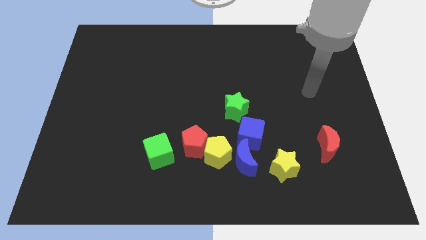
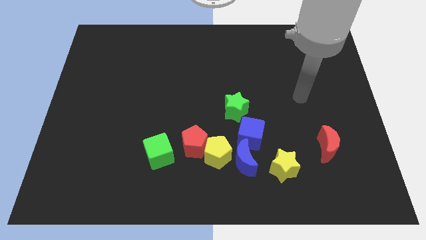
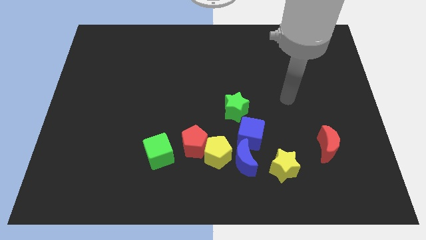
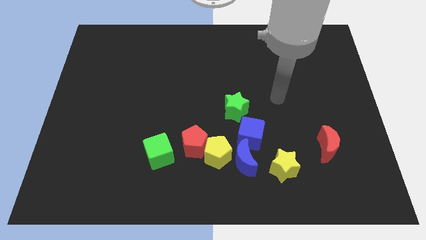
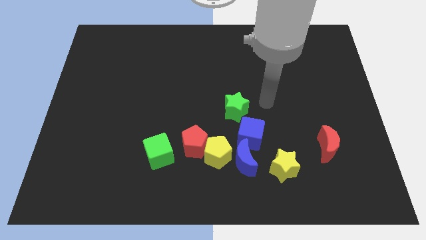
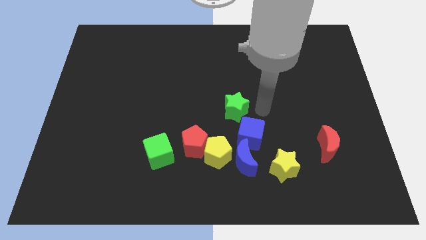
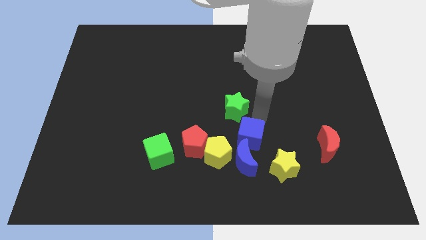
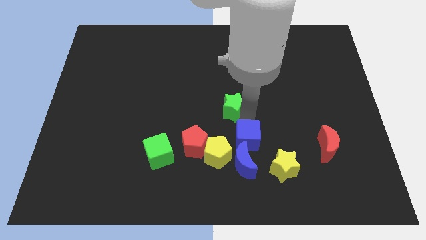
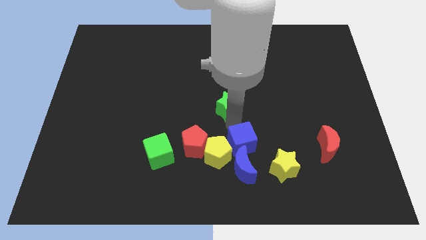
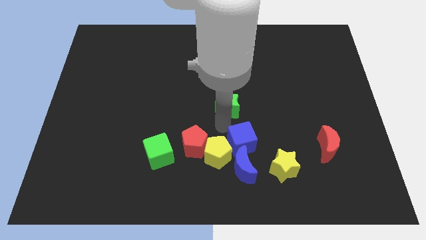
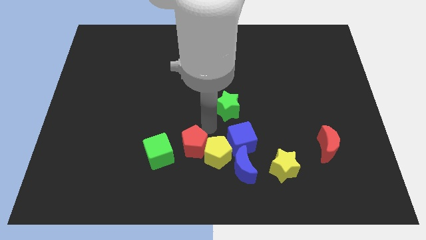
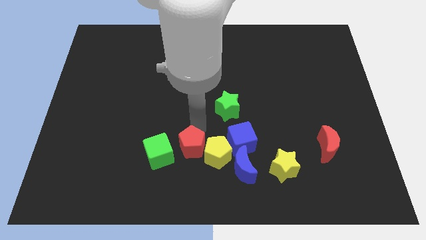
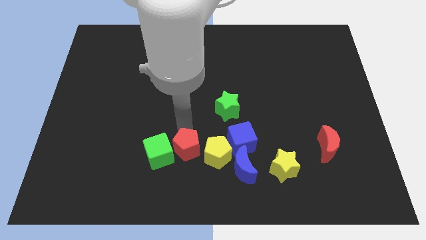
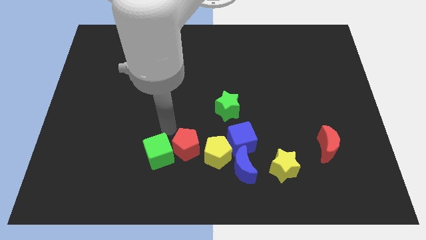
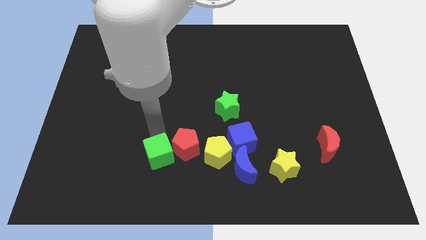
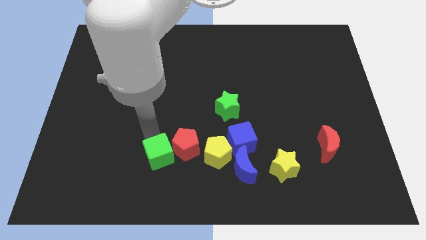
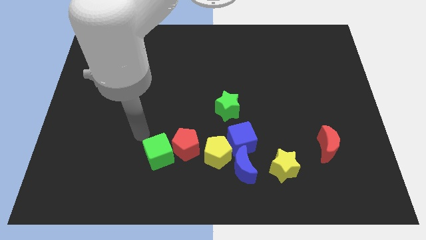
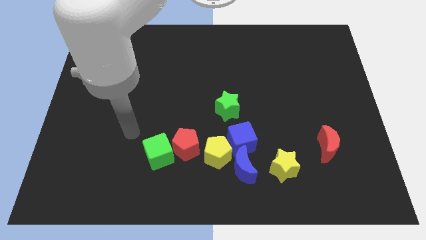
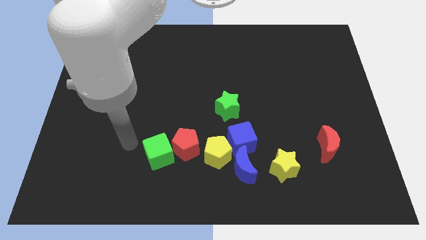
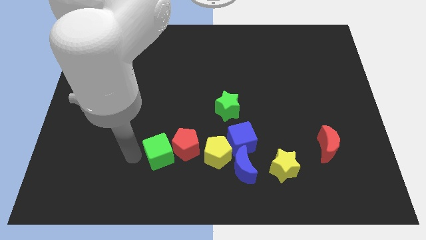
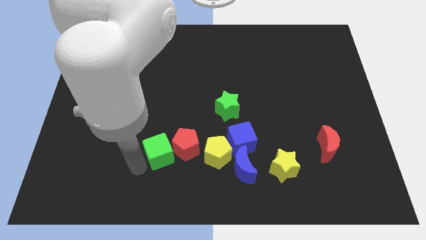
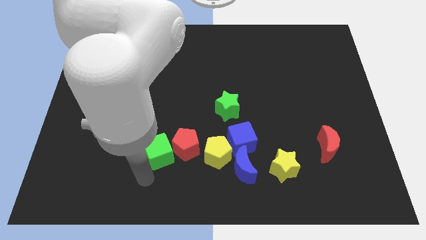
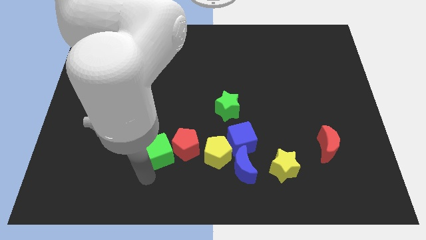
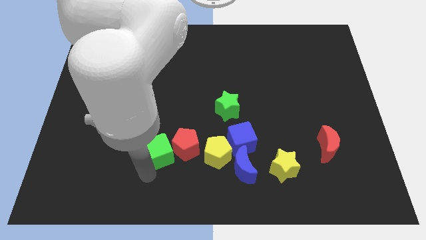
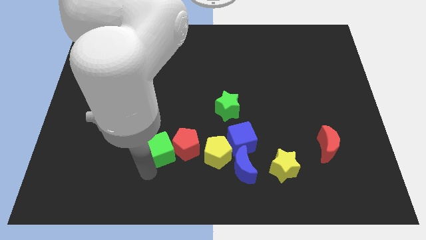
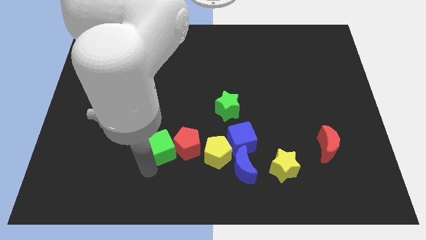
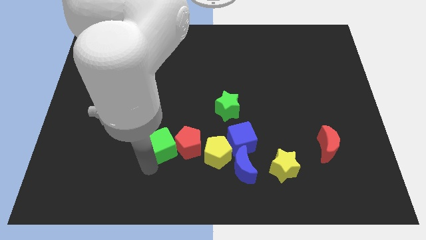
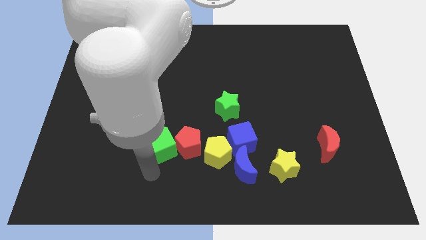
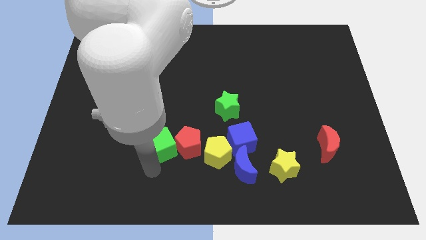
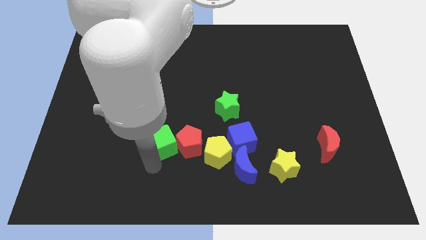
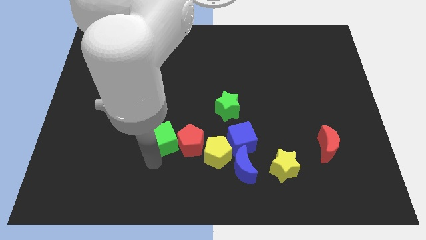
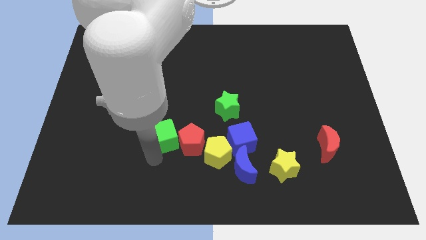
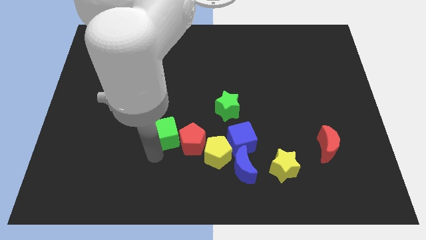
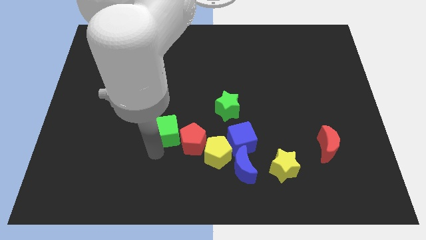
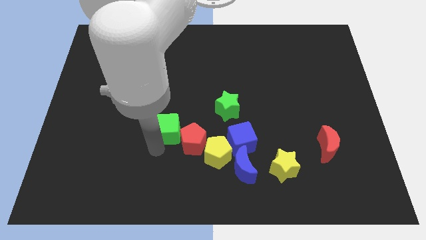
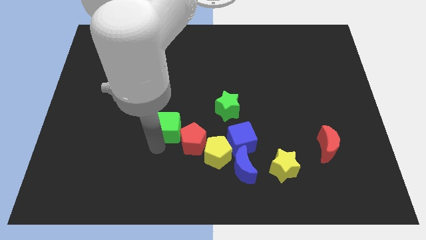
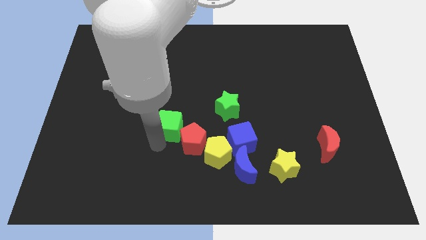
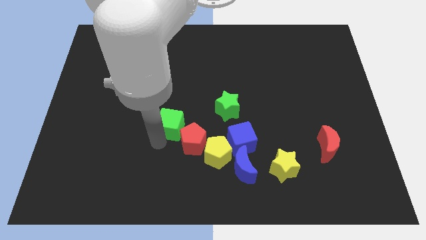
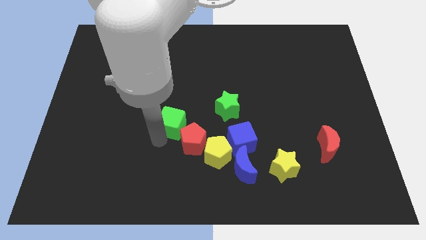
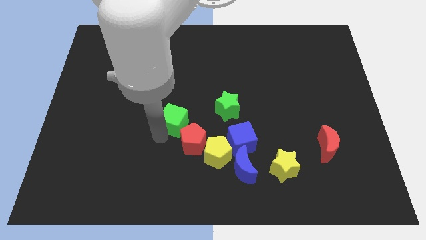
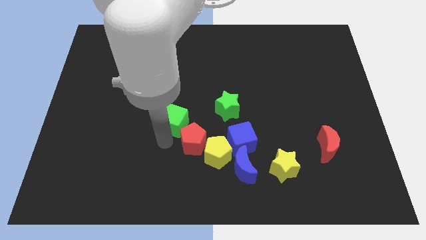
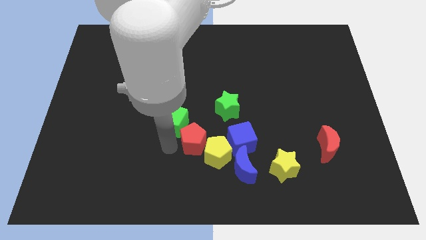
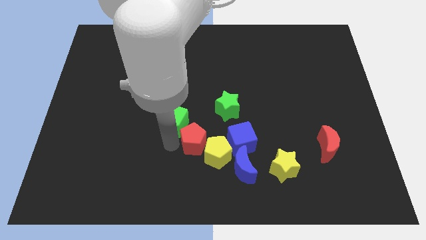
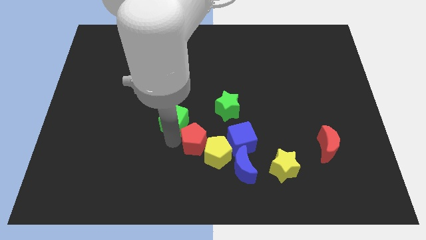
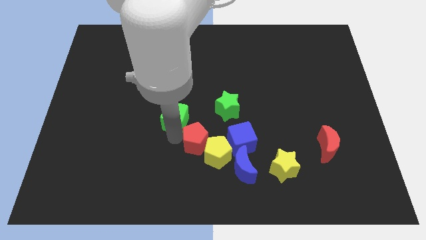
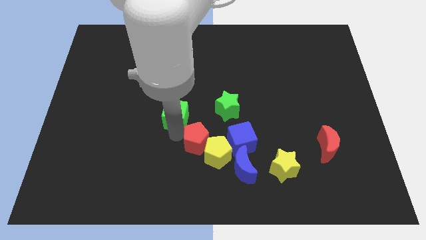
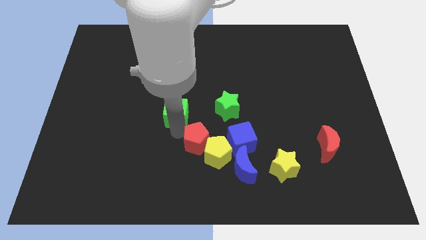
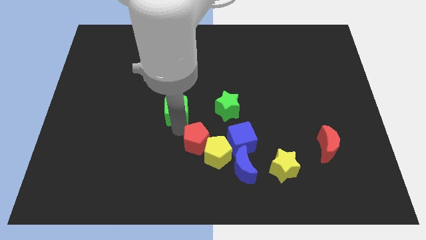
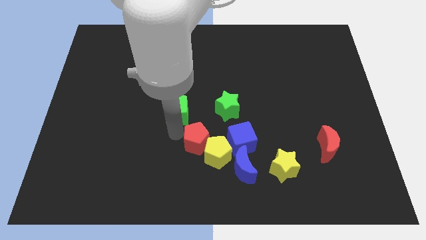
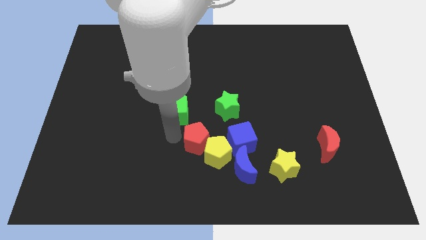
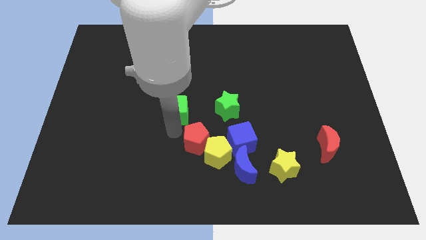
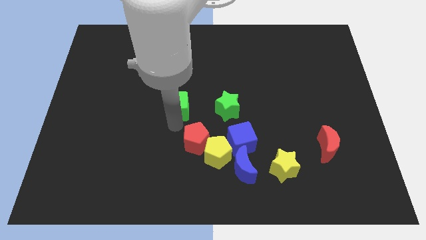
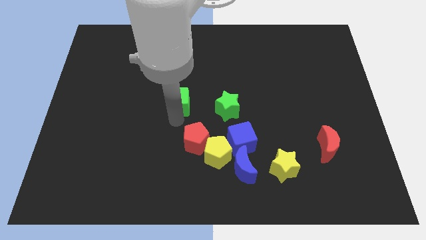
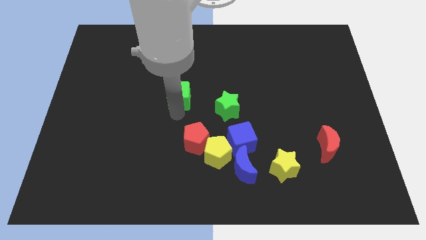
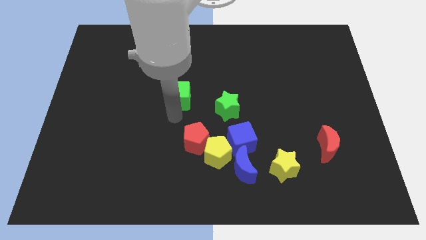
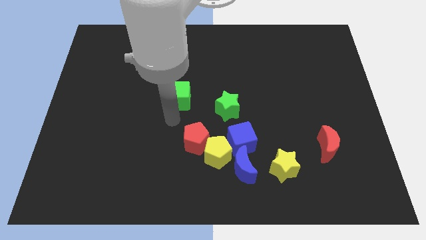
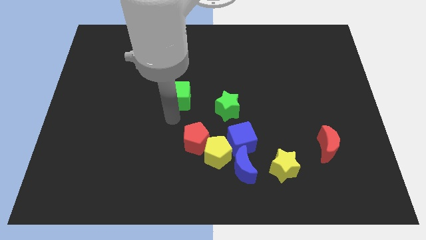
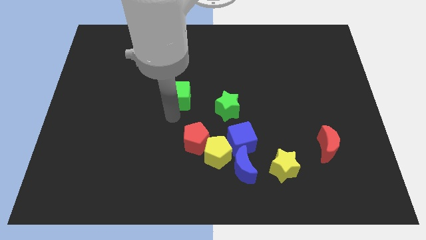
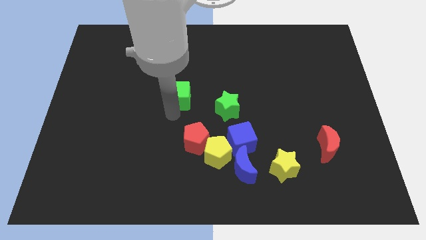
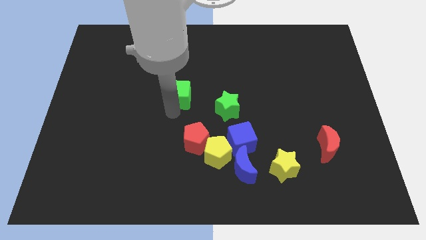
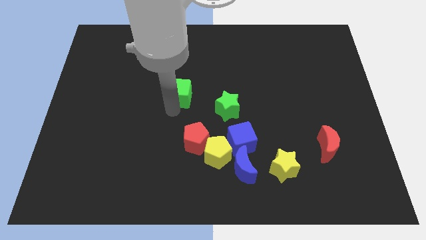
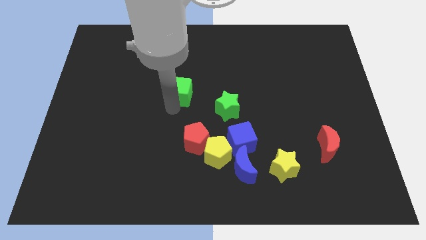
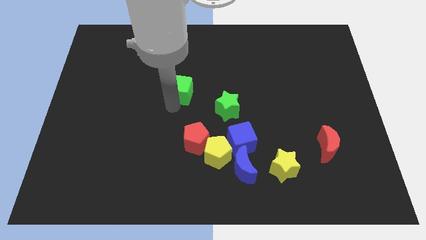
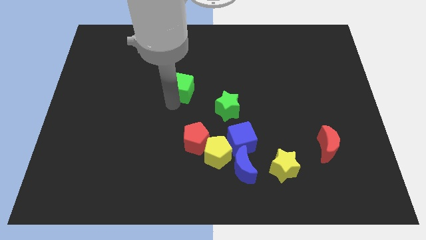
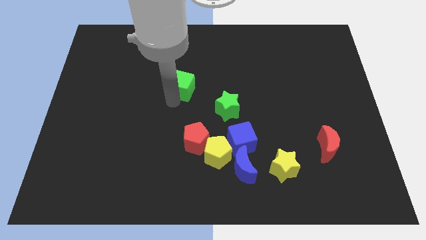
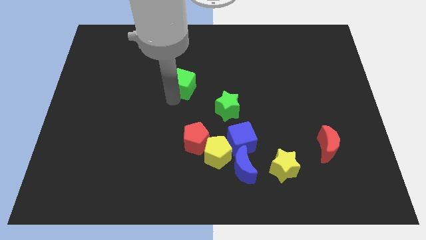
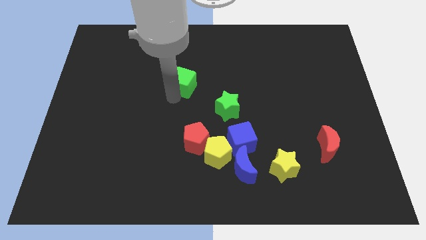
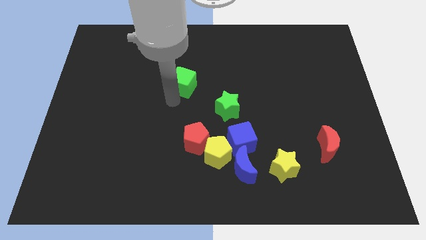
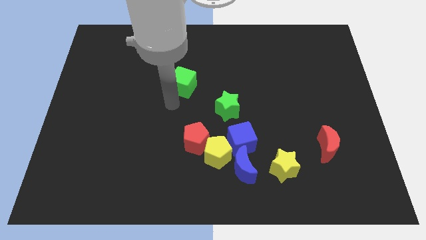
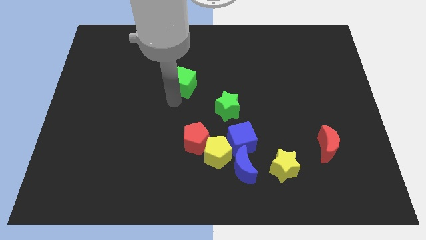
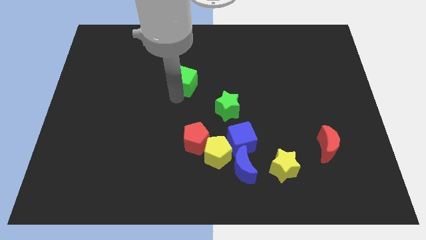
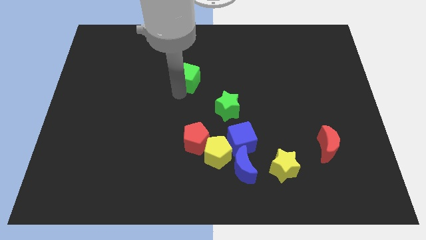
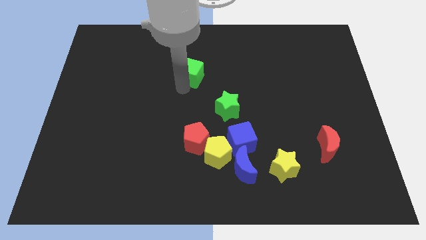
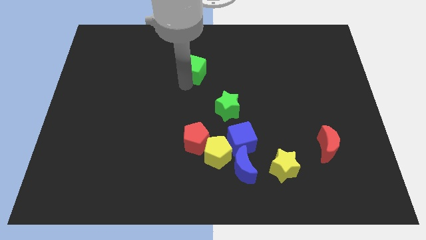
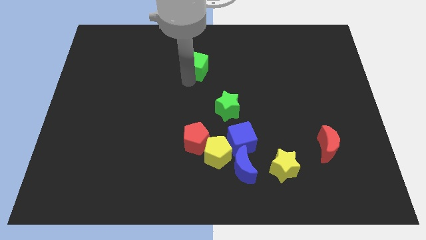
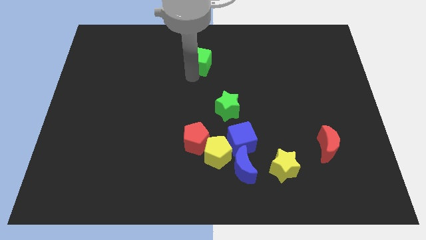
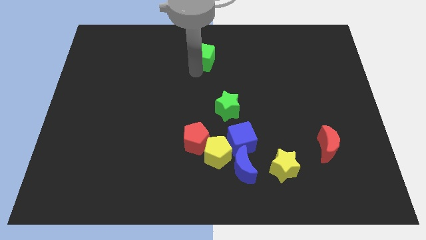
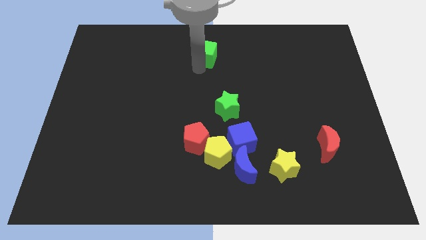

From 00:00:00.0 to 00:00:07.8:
slide the green cube to the towards your base
